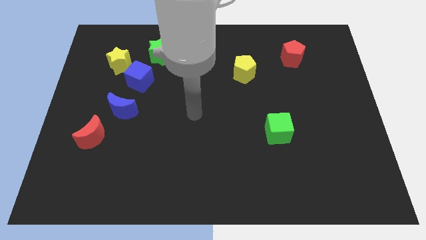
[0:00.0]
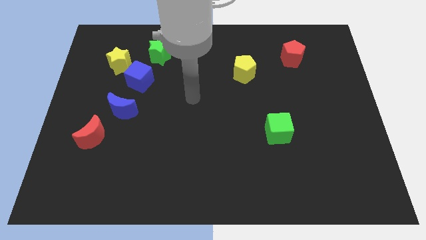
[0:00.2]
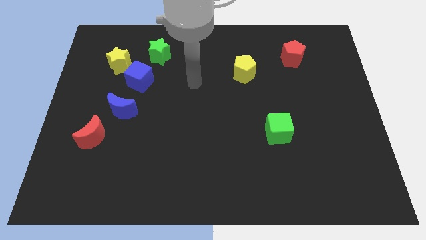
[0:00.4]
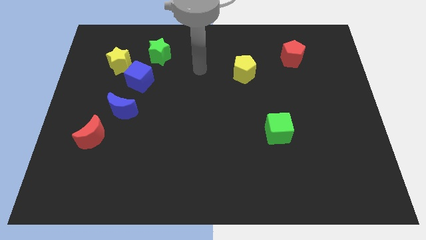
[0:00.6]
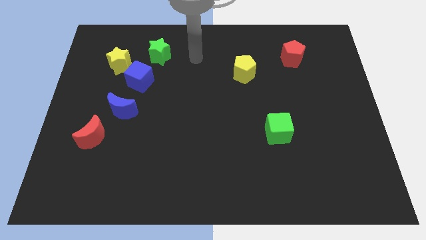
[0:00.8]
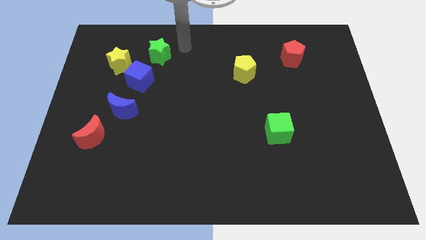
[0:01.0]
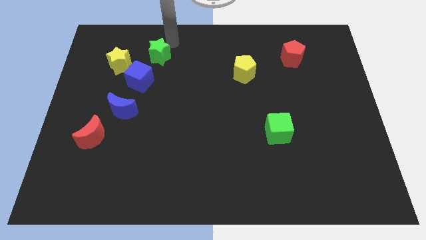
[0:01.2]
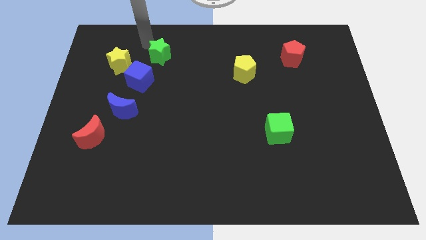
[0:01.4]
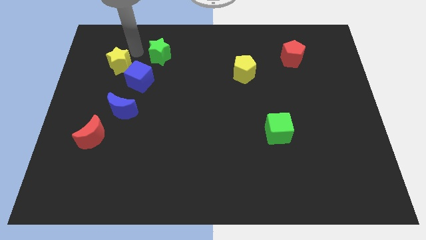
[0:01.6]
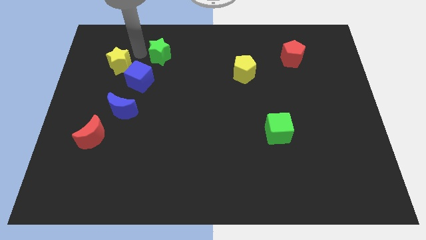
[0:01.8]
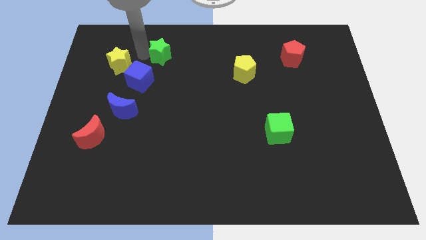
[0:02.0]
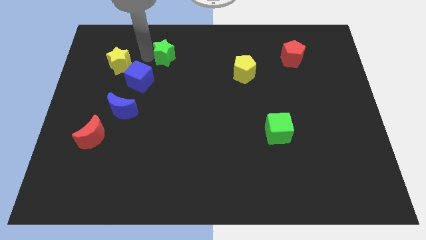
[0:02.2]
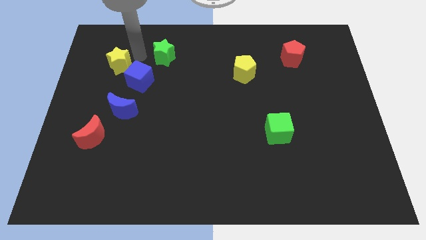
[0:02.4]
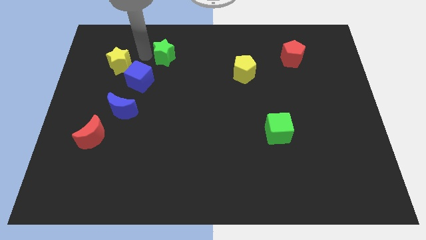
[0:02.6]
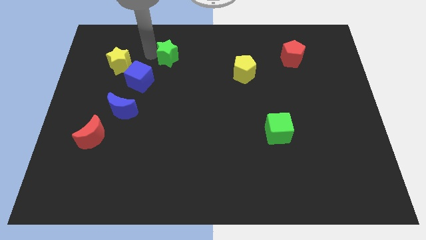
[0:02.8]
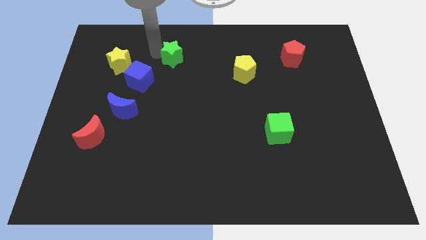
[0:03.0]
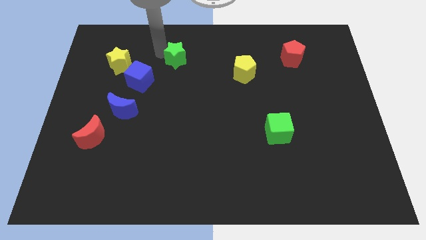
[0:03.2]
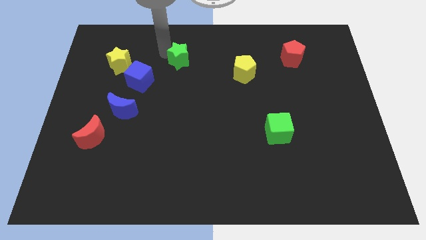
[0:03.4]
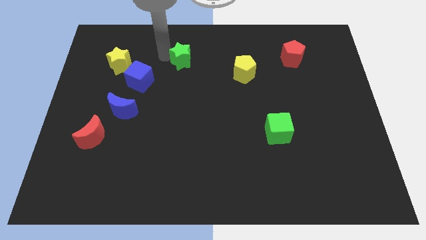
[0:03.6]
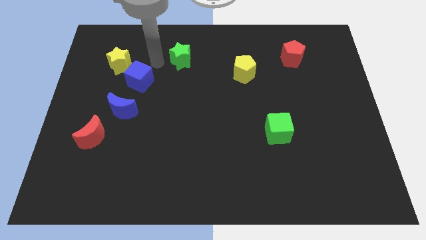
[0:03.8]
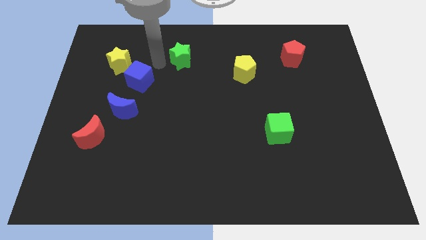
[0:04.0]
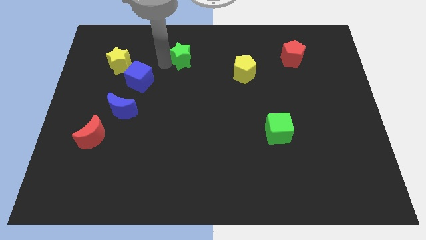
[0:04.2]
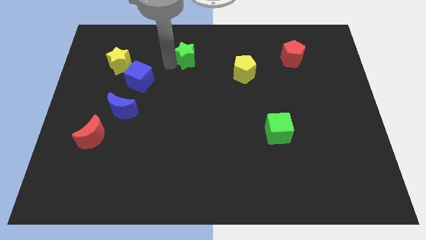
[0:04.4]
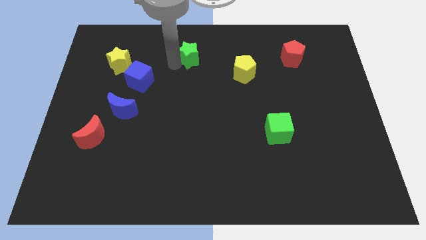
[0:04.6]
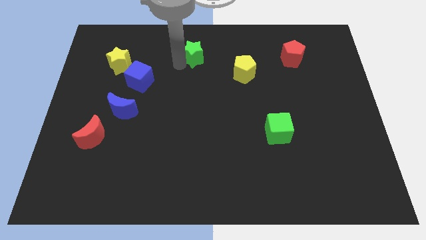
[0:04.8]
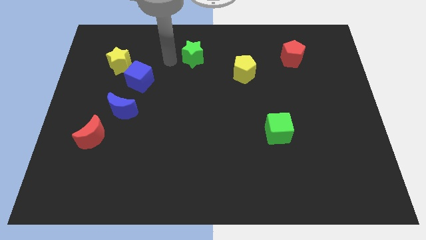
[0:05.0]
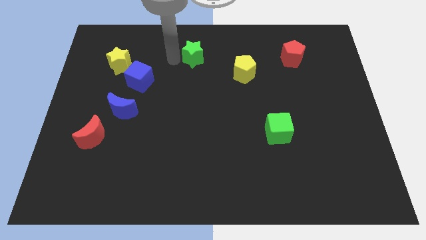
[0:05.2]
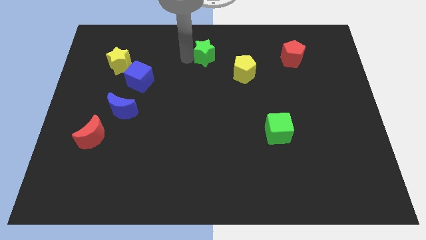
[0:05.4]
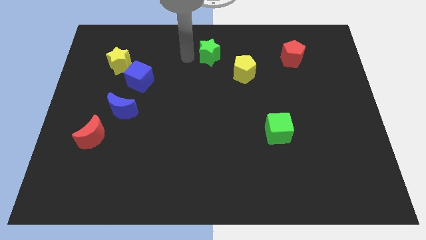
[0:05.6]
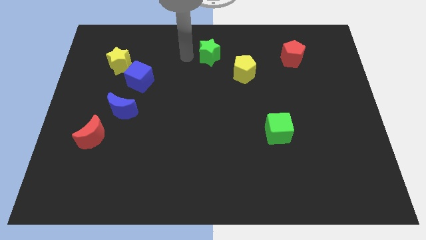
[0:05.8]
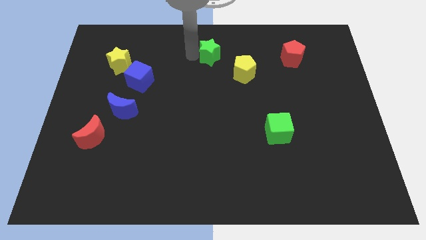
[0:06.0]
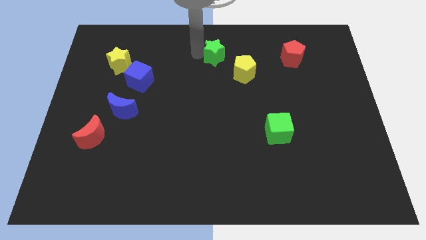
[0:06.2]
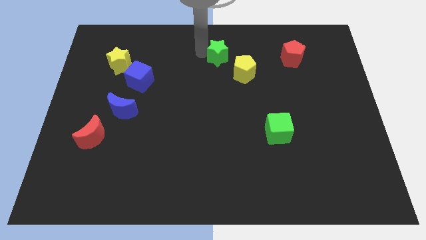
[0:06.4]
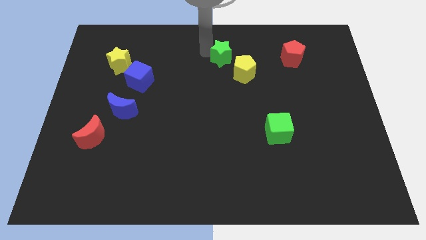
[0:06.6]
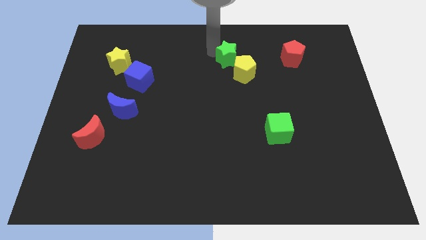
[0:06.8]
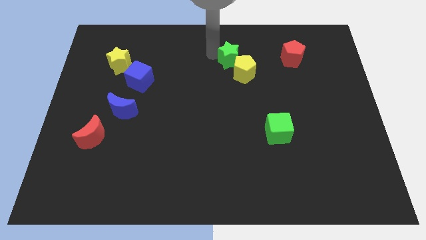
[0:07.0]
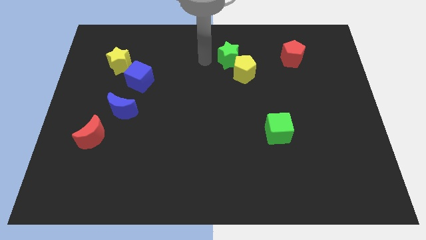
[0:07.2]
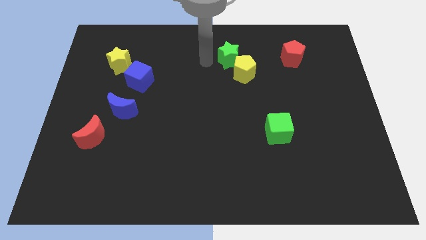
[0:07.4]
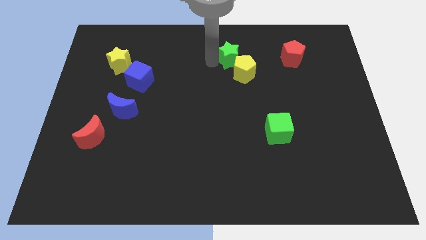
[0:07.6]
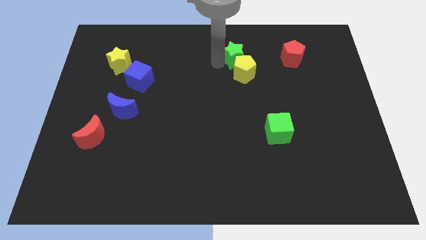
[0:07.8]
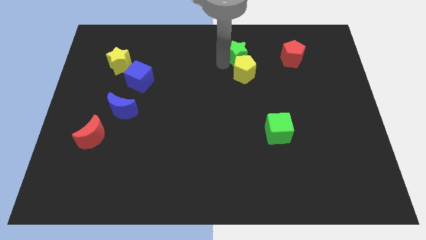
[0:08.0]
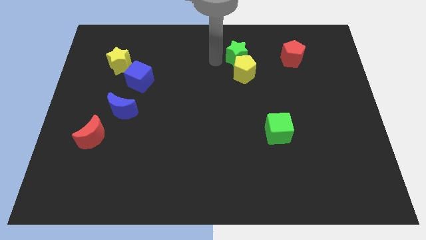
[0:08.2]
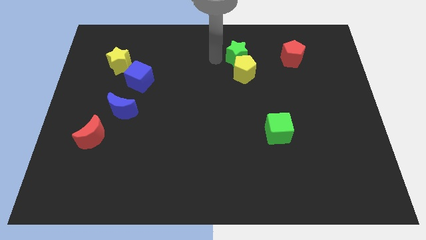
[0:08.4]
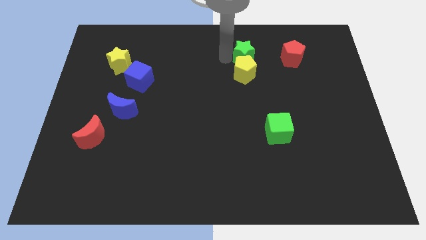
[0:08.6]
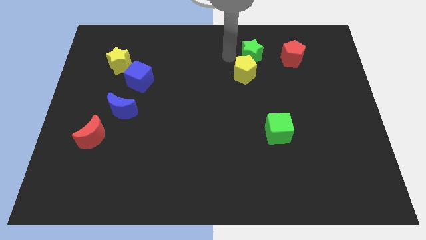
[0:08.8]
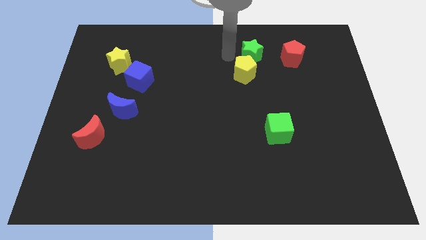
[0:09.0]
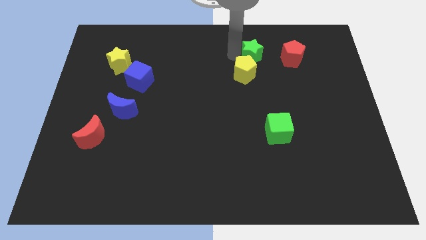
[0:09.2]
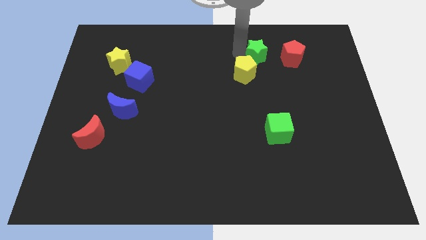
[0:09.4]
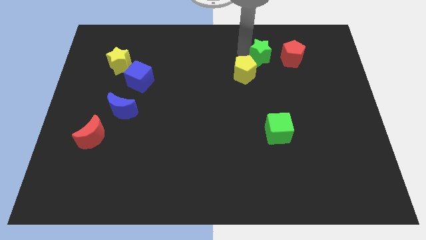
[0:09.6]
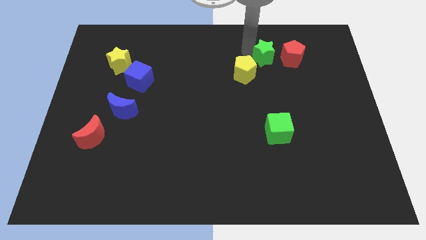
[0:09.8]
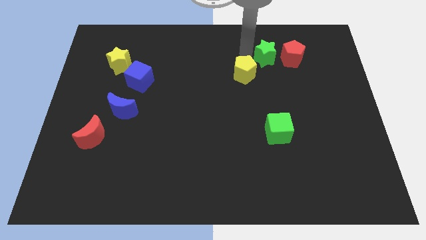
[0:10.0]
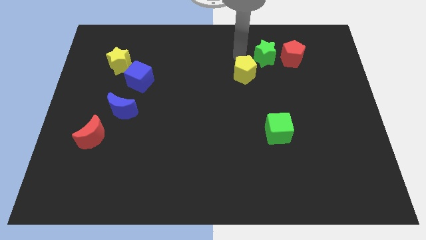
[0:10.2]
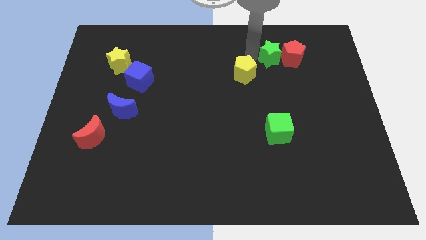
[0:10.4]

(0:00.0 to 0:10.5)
slide the green star next to the red pentagon

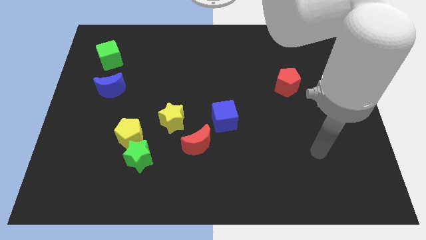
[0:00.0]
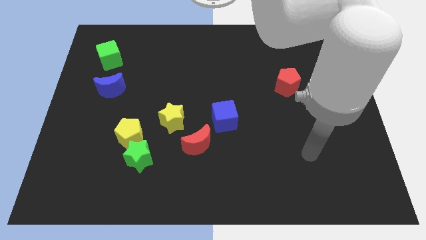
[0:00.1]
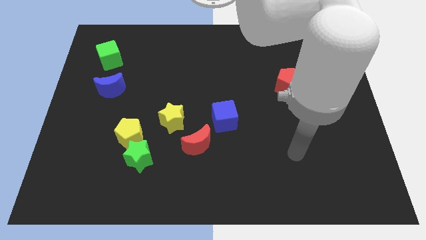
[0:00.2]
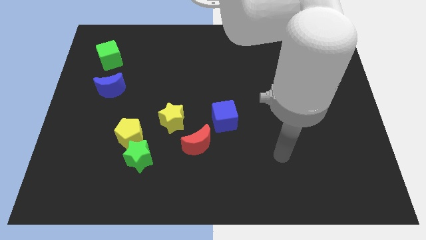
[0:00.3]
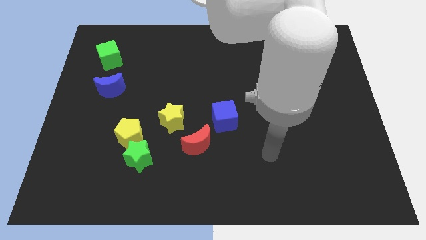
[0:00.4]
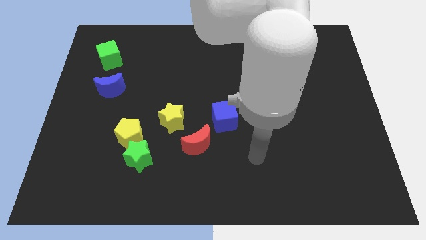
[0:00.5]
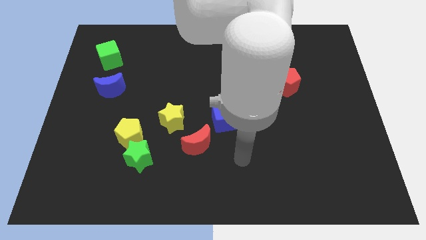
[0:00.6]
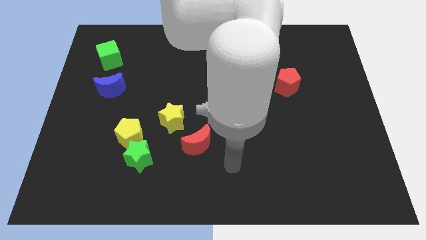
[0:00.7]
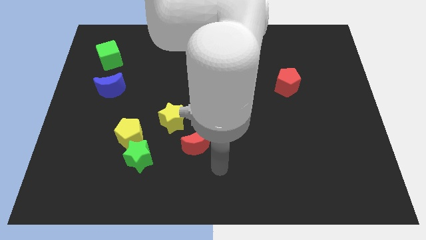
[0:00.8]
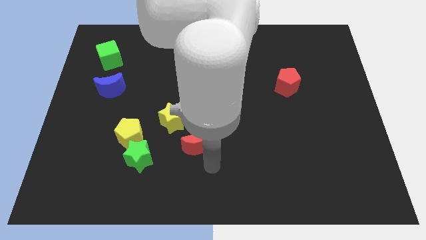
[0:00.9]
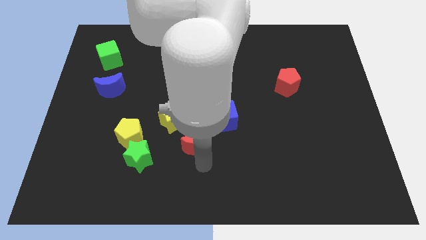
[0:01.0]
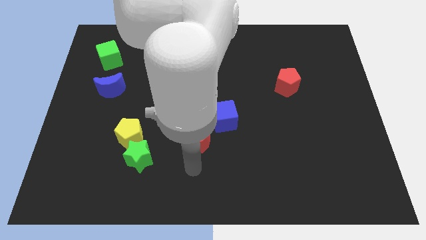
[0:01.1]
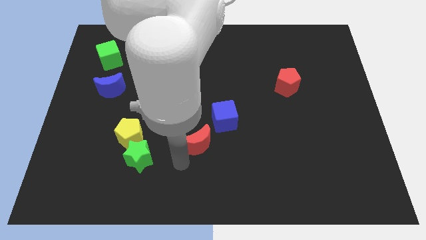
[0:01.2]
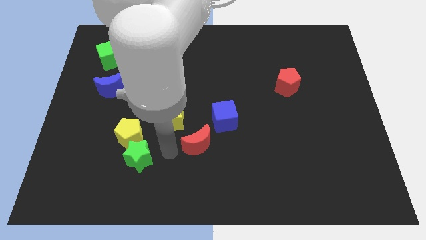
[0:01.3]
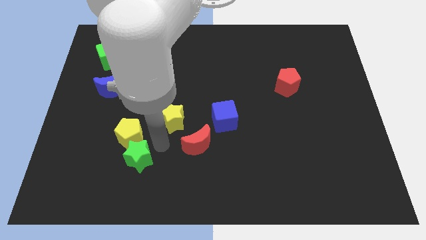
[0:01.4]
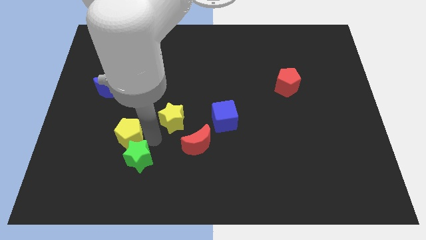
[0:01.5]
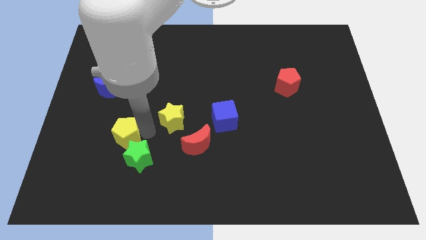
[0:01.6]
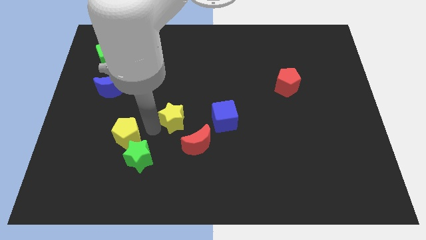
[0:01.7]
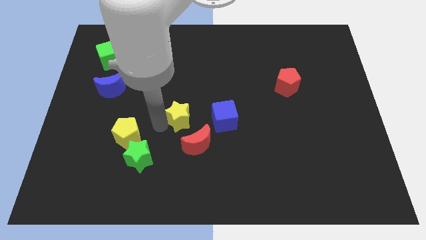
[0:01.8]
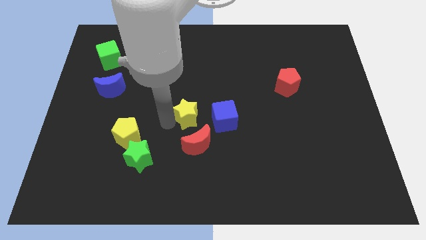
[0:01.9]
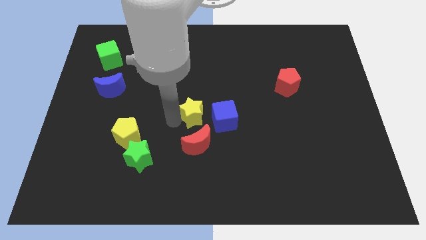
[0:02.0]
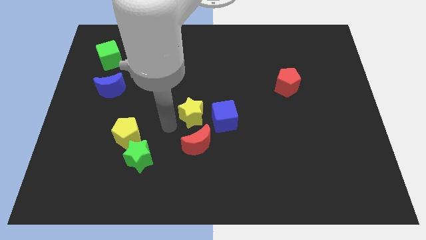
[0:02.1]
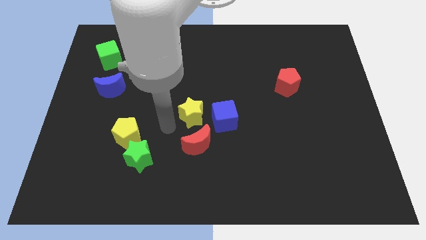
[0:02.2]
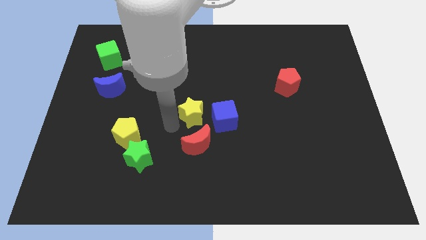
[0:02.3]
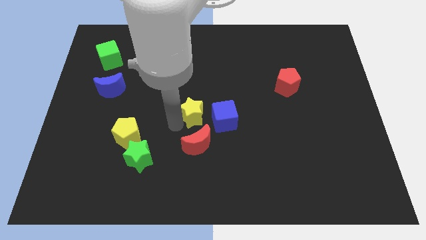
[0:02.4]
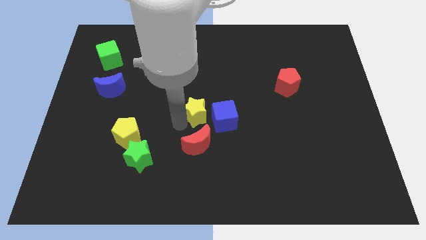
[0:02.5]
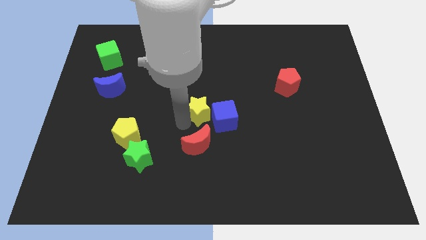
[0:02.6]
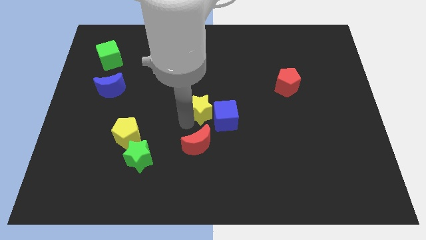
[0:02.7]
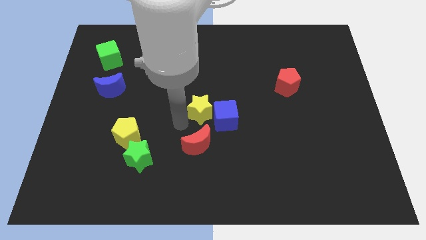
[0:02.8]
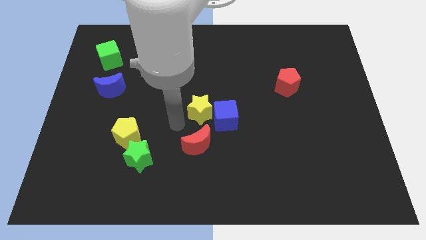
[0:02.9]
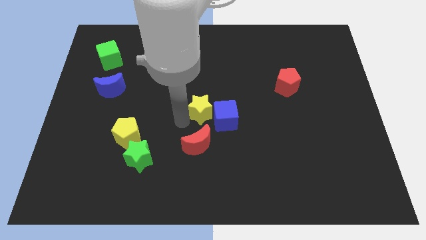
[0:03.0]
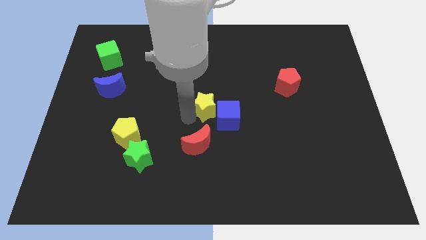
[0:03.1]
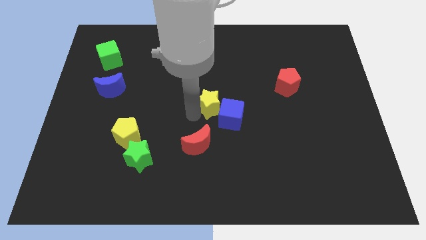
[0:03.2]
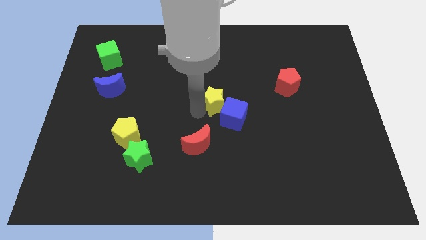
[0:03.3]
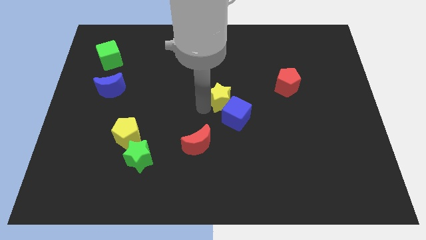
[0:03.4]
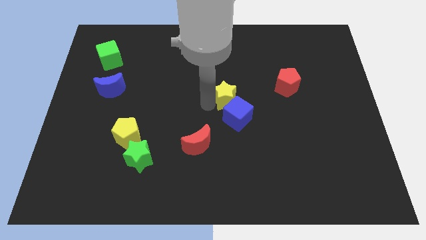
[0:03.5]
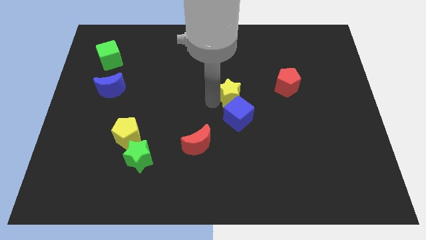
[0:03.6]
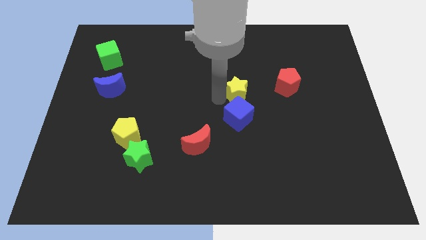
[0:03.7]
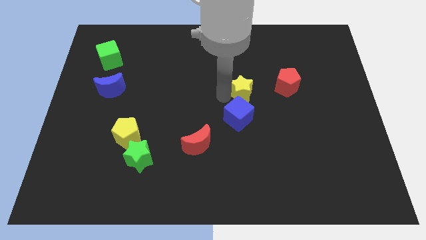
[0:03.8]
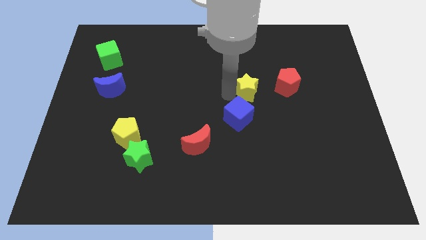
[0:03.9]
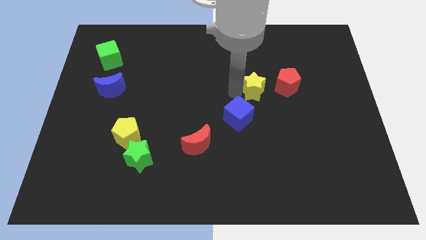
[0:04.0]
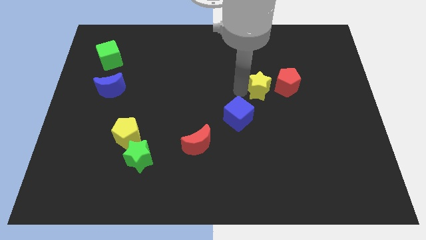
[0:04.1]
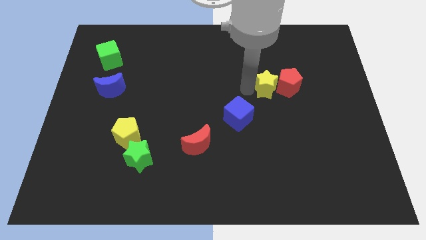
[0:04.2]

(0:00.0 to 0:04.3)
put the yellow star to the red pentagon
